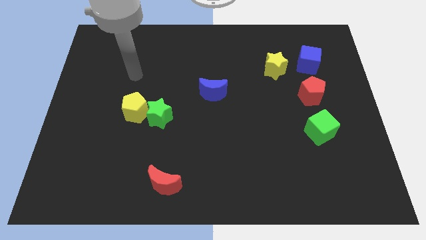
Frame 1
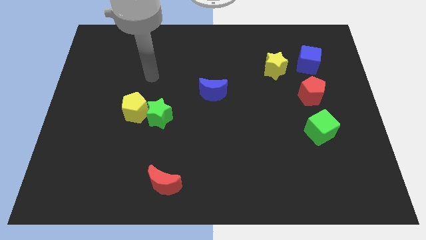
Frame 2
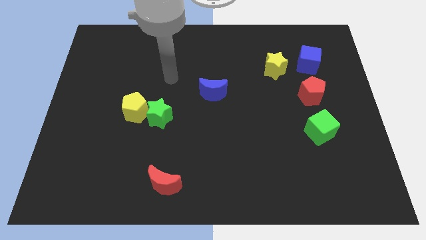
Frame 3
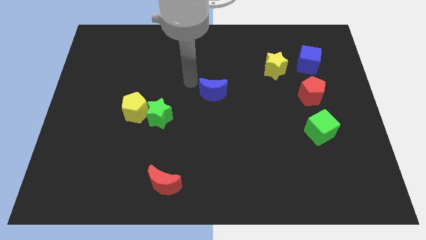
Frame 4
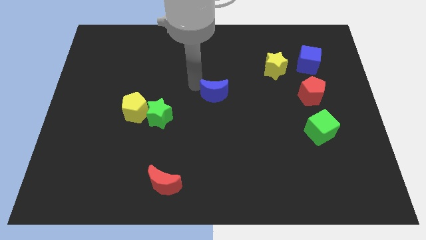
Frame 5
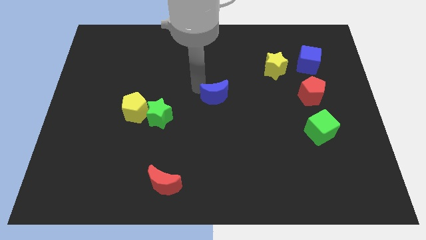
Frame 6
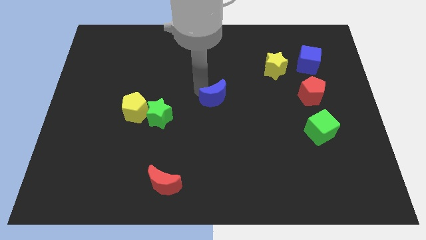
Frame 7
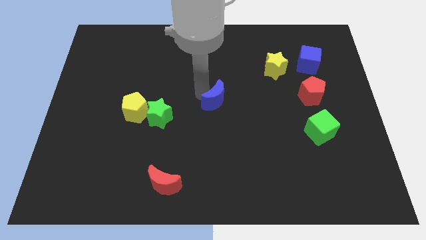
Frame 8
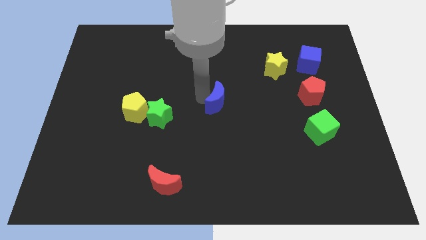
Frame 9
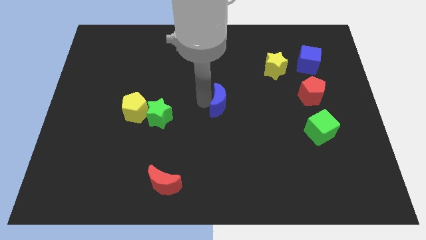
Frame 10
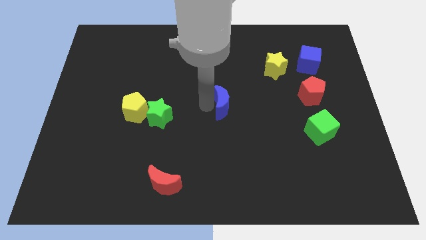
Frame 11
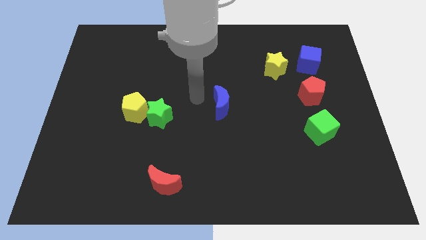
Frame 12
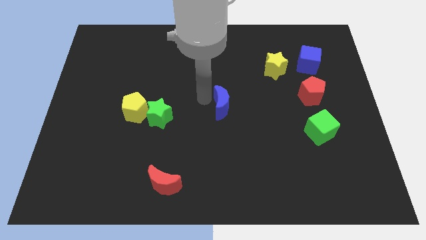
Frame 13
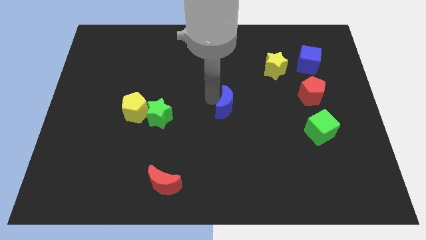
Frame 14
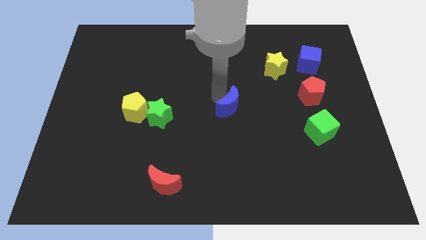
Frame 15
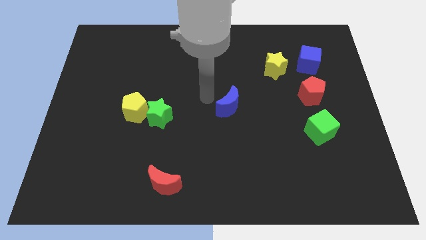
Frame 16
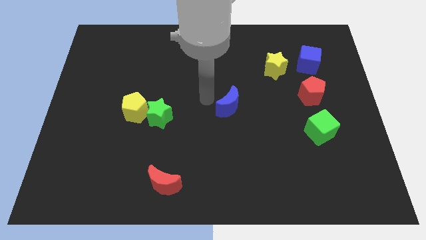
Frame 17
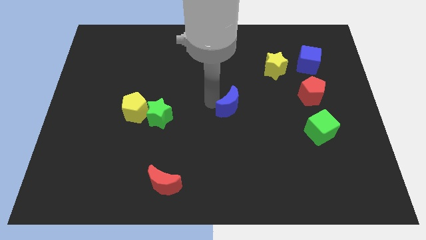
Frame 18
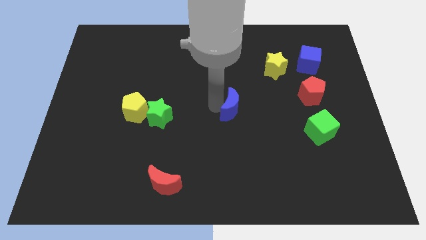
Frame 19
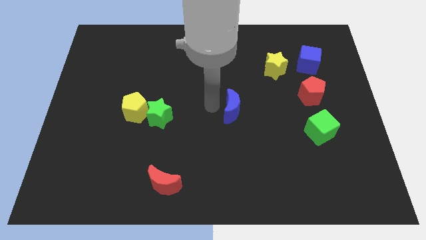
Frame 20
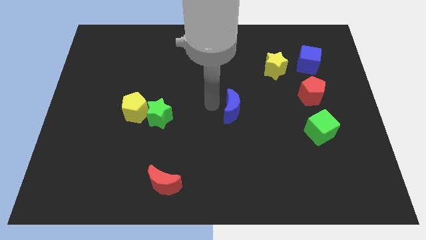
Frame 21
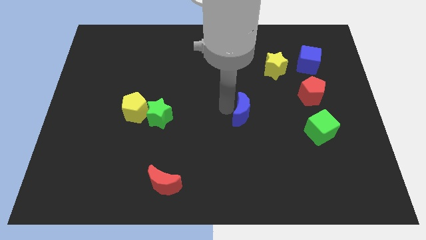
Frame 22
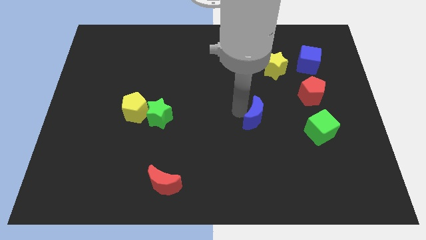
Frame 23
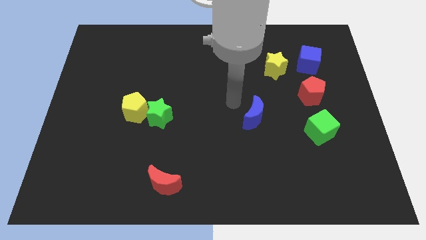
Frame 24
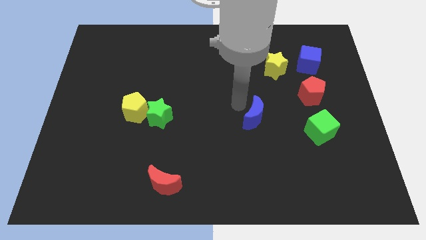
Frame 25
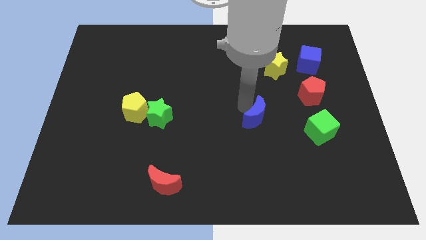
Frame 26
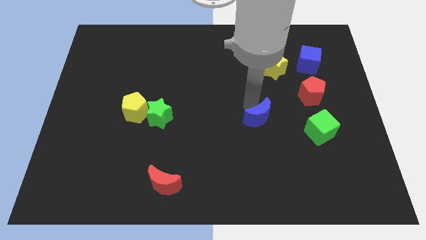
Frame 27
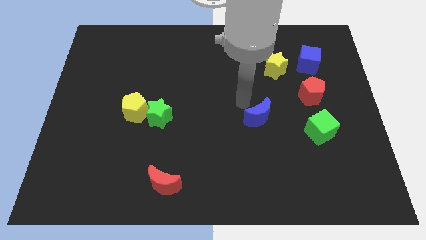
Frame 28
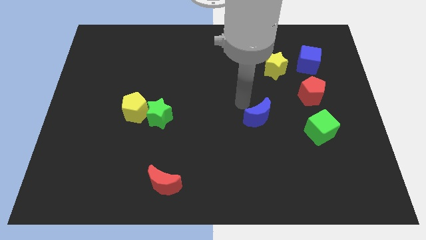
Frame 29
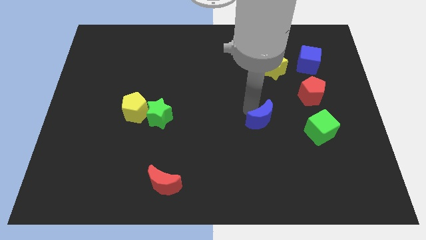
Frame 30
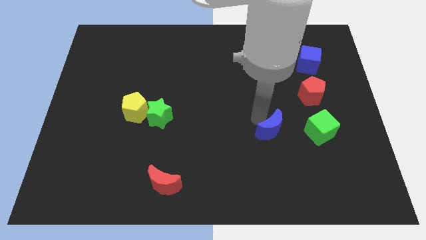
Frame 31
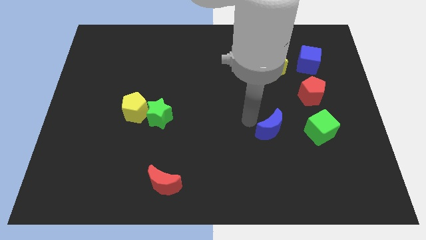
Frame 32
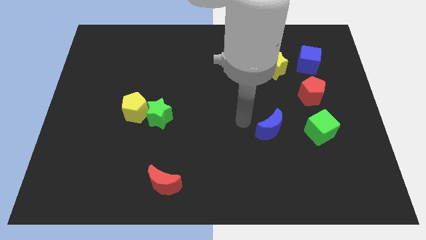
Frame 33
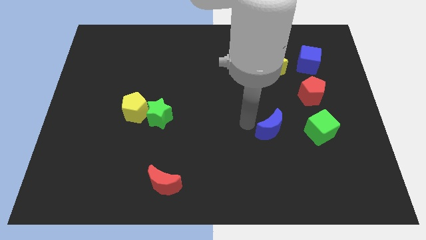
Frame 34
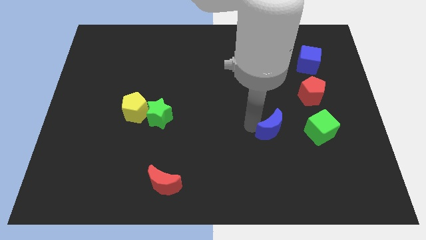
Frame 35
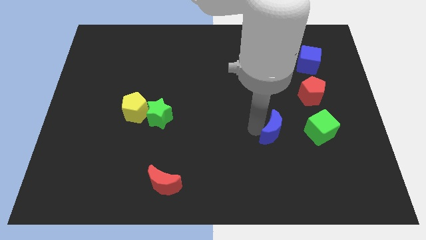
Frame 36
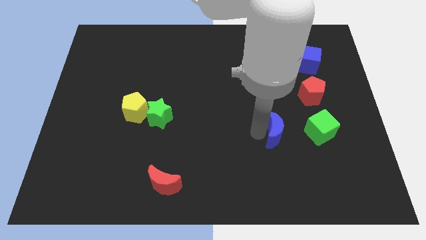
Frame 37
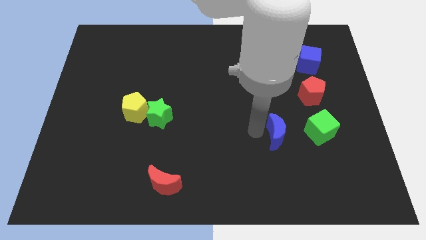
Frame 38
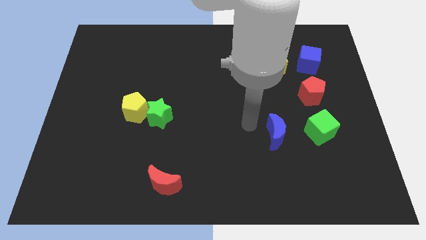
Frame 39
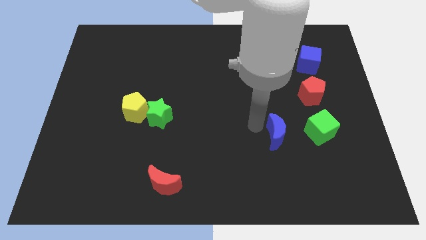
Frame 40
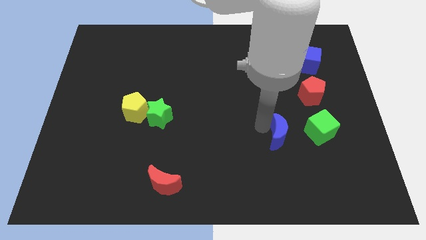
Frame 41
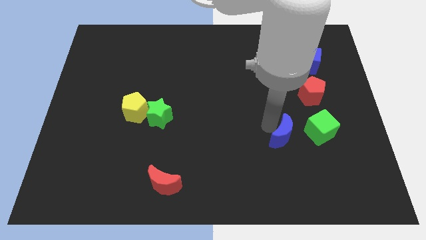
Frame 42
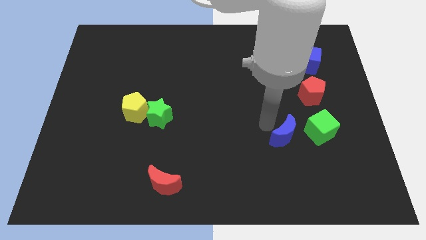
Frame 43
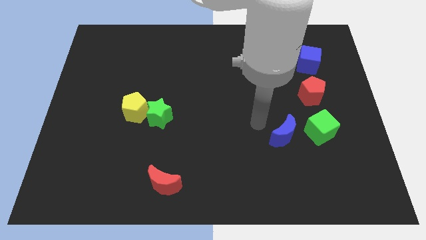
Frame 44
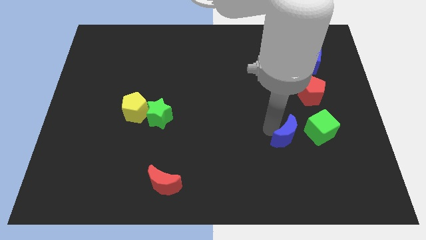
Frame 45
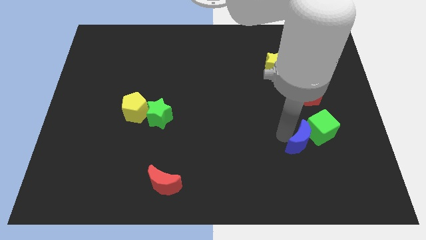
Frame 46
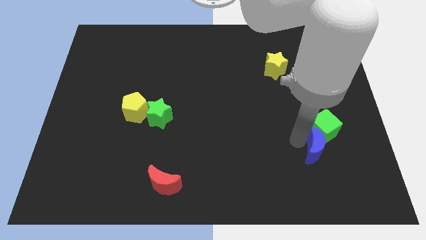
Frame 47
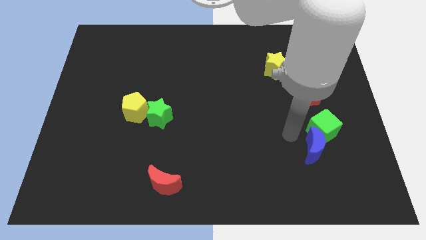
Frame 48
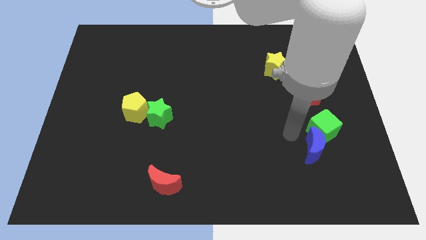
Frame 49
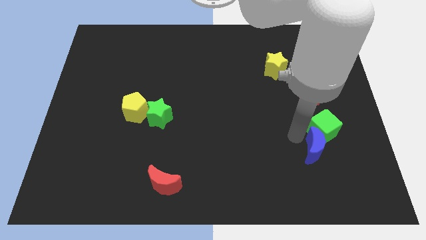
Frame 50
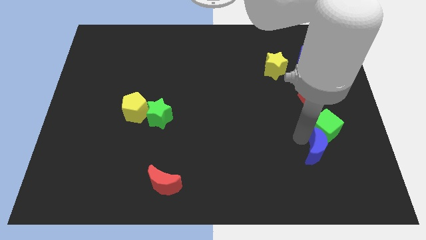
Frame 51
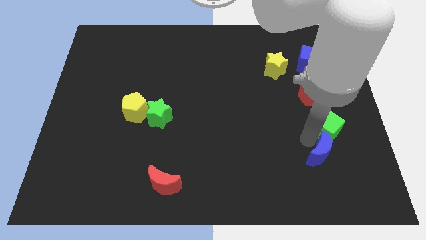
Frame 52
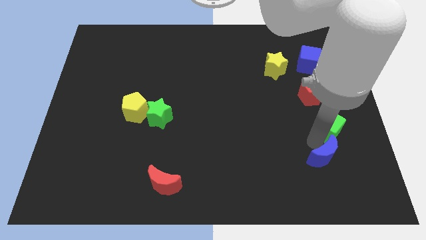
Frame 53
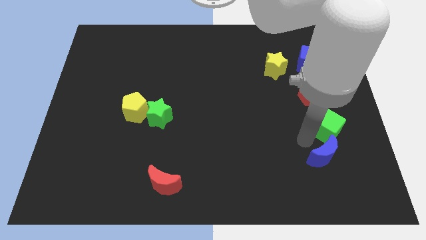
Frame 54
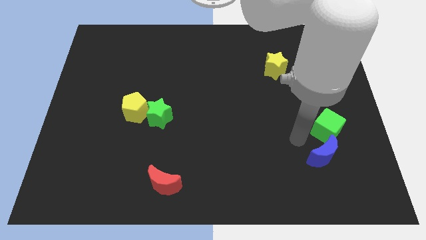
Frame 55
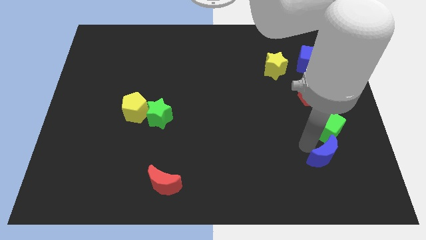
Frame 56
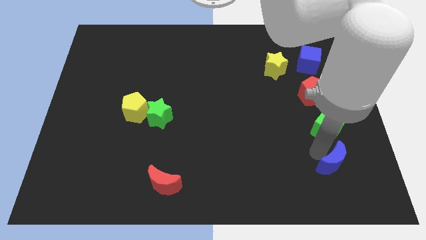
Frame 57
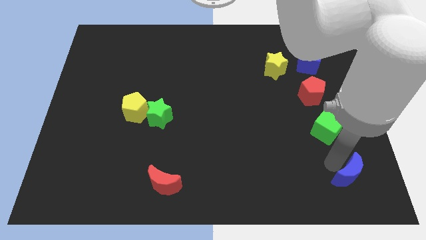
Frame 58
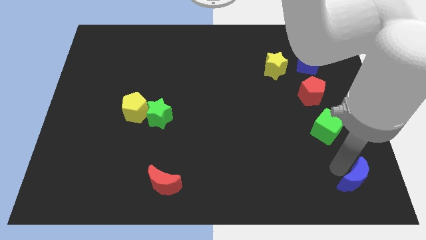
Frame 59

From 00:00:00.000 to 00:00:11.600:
slide the blue moon to the bottom right of the board

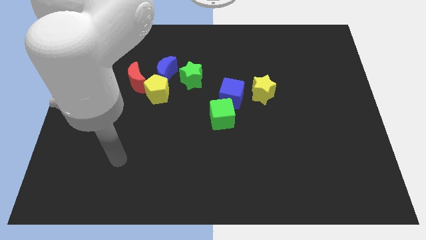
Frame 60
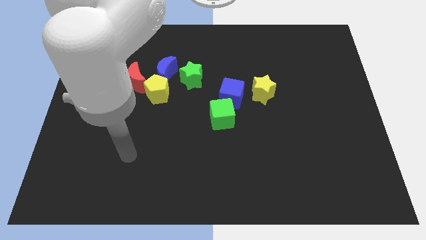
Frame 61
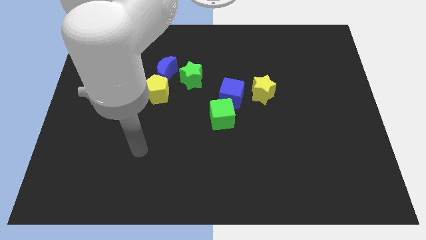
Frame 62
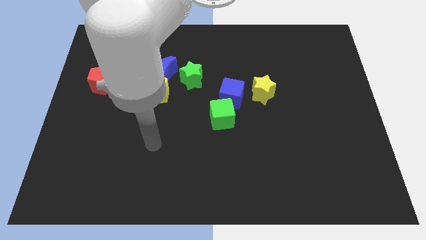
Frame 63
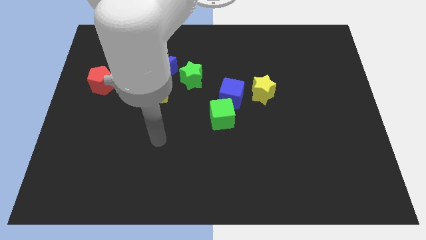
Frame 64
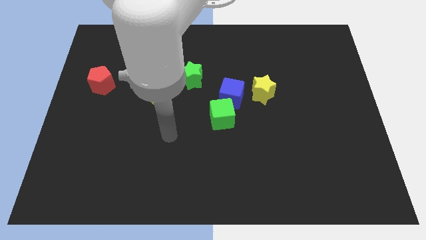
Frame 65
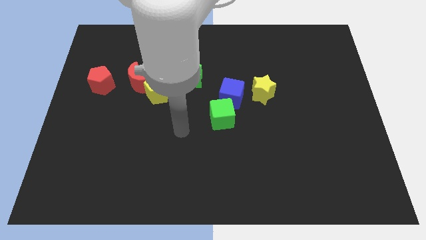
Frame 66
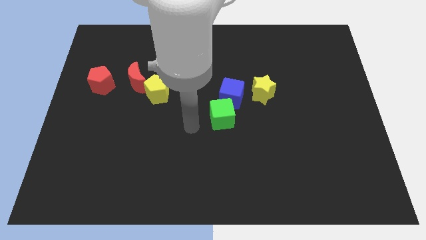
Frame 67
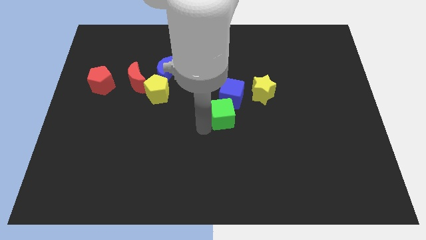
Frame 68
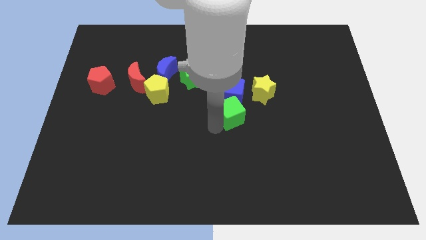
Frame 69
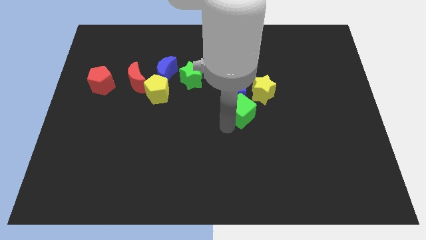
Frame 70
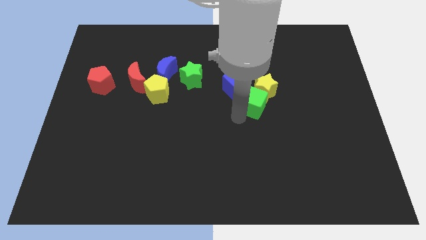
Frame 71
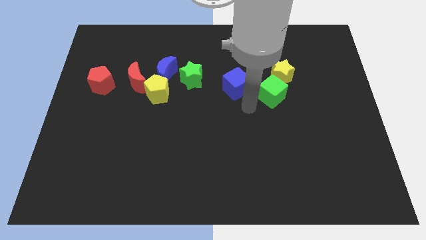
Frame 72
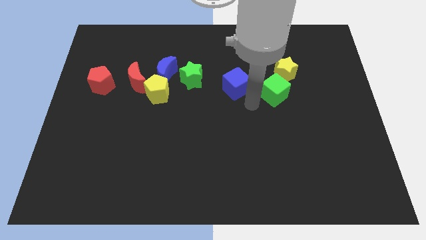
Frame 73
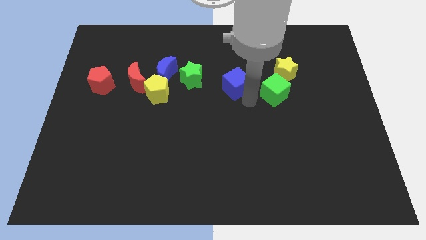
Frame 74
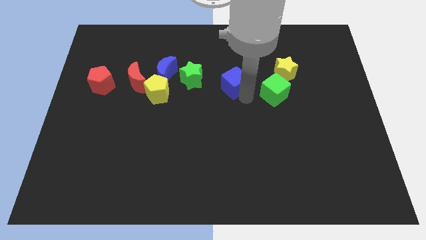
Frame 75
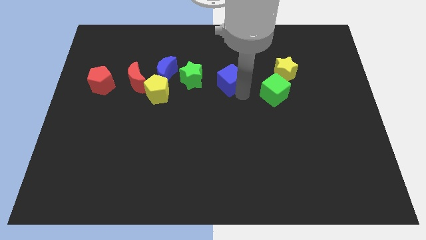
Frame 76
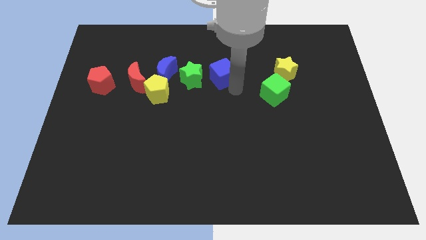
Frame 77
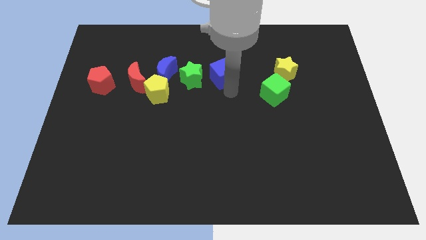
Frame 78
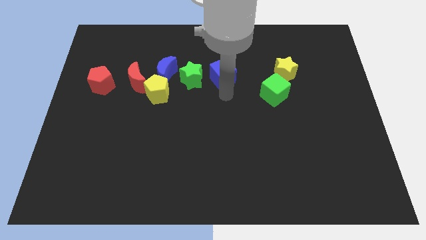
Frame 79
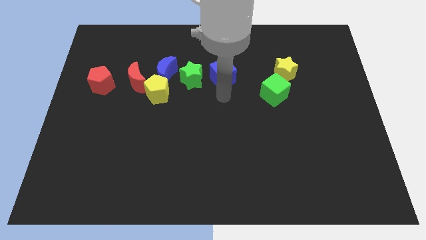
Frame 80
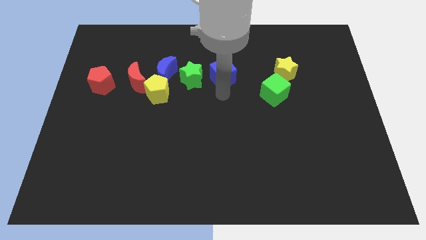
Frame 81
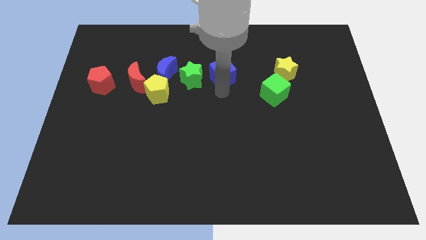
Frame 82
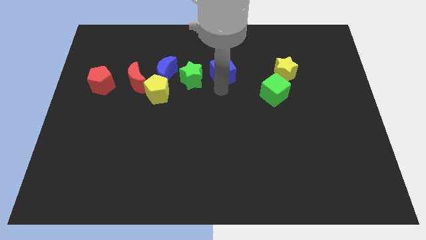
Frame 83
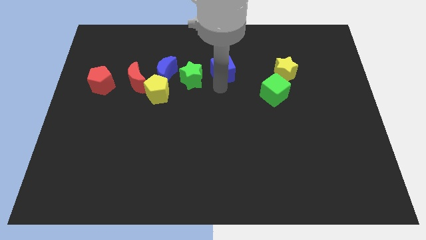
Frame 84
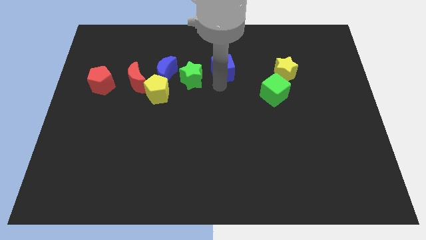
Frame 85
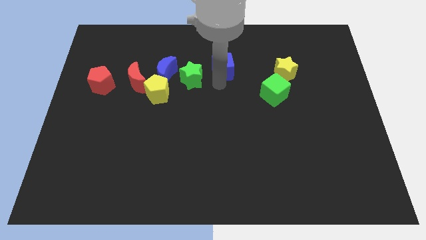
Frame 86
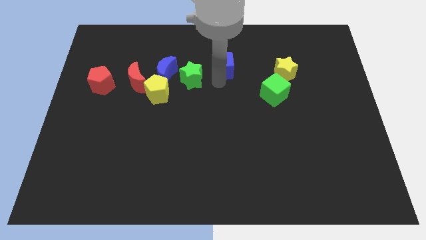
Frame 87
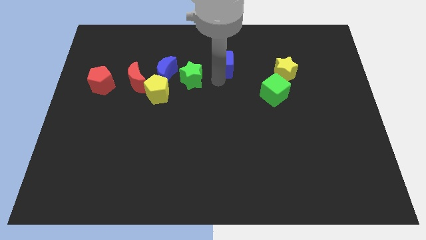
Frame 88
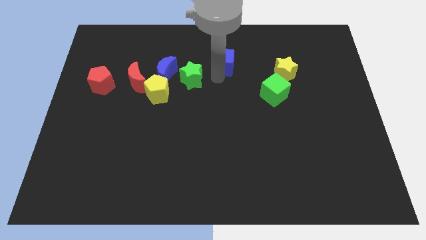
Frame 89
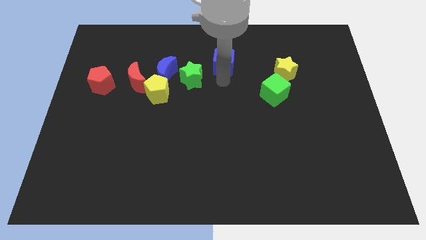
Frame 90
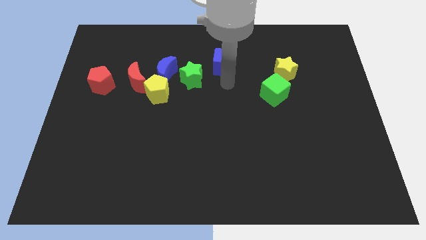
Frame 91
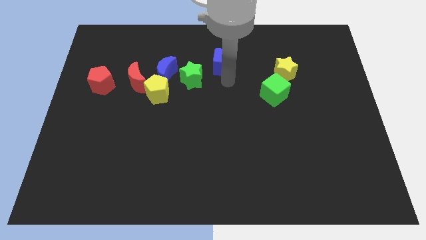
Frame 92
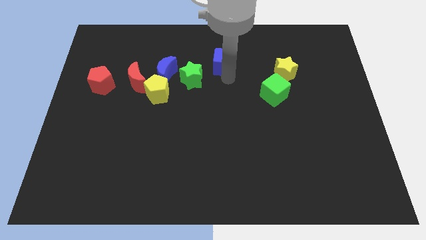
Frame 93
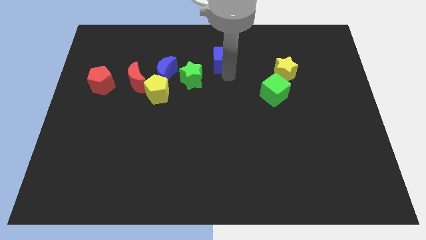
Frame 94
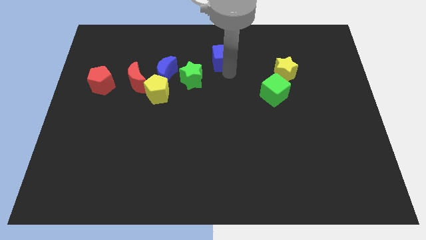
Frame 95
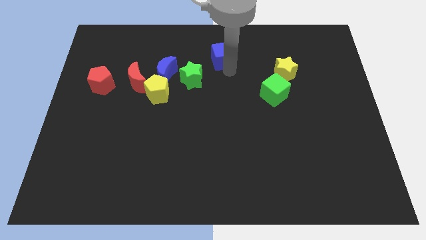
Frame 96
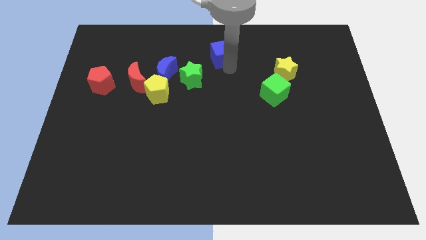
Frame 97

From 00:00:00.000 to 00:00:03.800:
put the blue cube to the top
